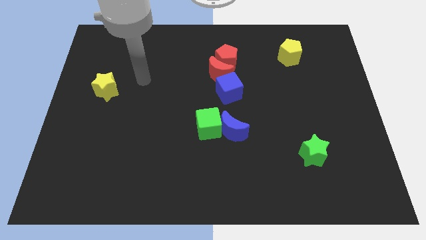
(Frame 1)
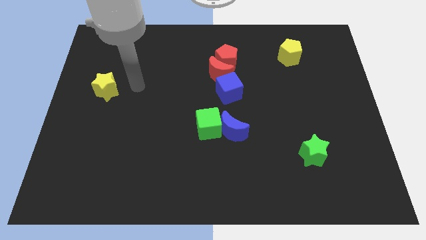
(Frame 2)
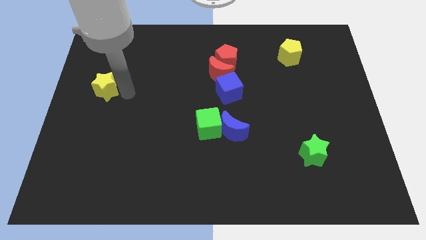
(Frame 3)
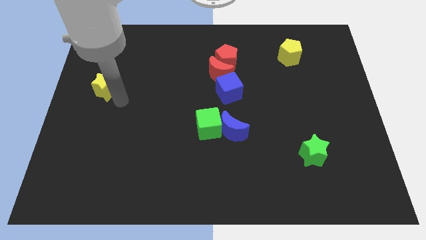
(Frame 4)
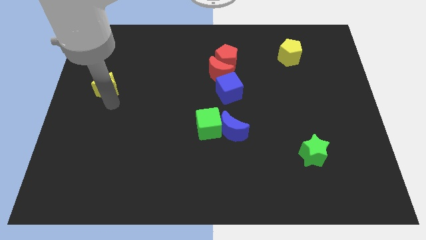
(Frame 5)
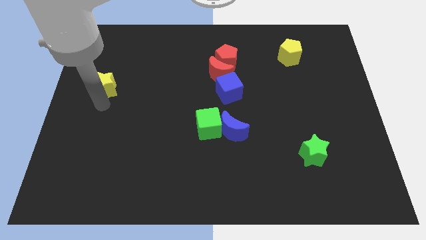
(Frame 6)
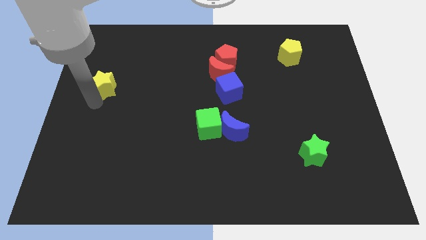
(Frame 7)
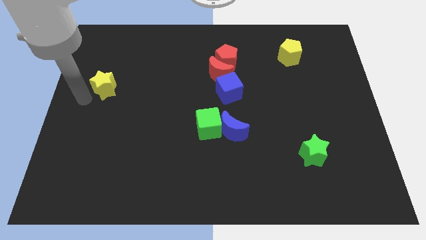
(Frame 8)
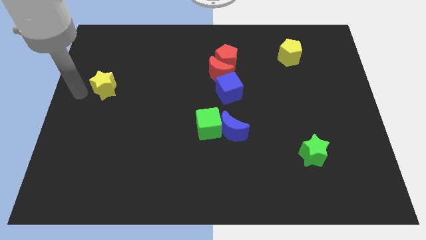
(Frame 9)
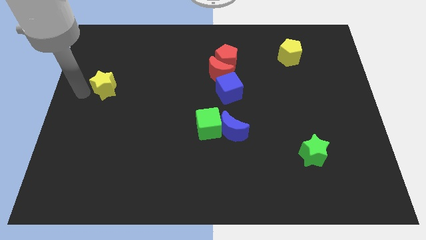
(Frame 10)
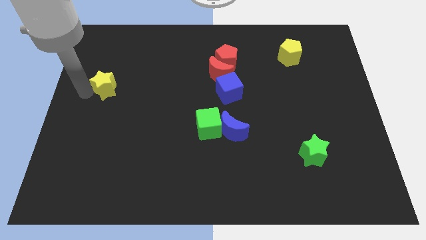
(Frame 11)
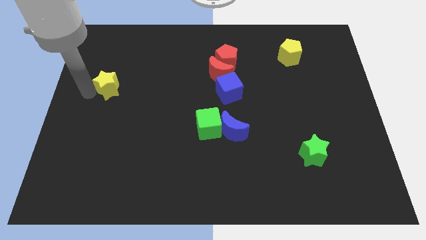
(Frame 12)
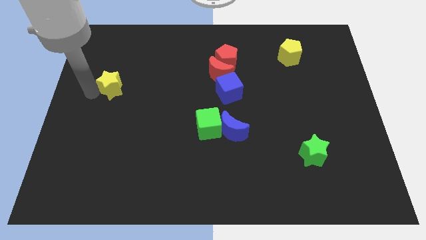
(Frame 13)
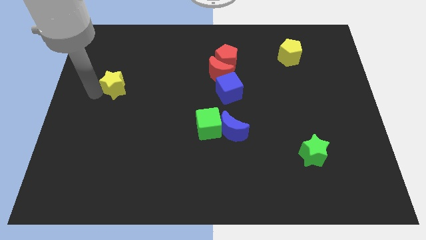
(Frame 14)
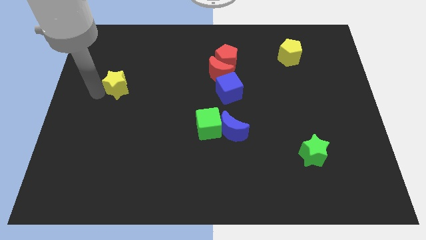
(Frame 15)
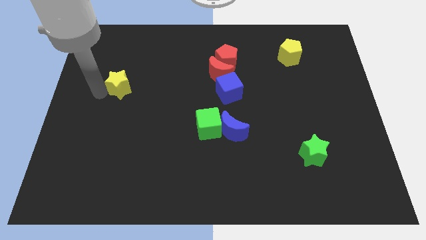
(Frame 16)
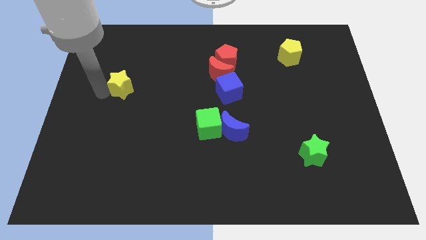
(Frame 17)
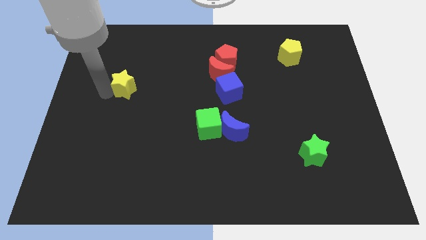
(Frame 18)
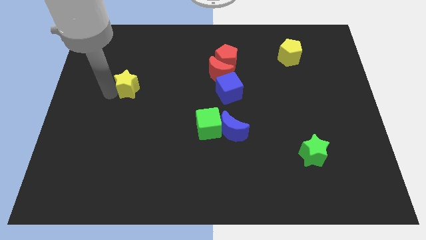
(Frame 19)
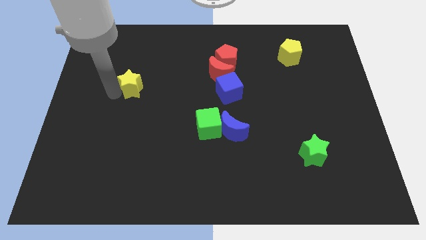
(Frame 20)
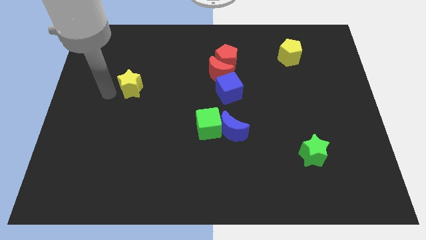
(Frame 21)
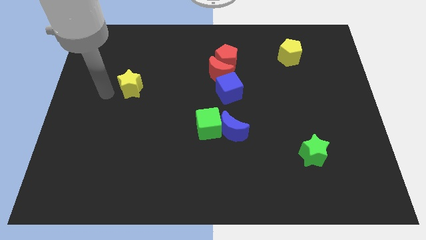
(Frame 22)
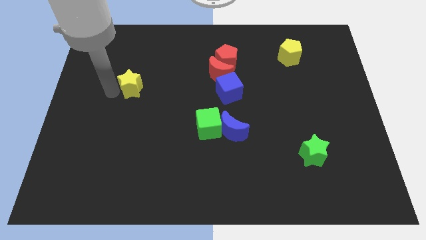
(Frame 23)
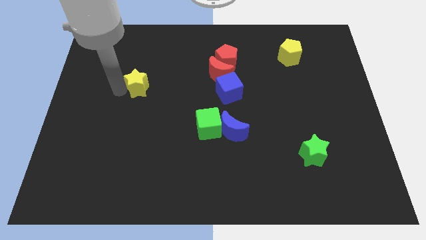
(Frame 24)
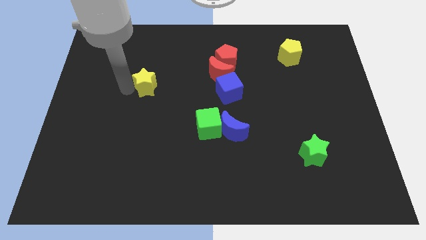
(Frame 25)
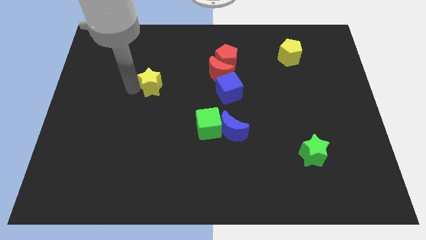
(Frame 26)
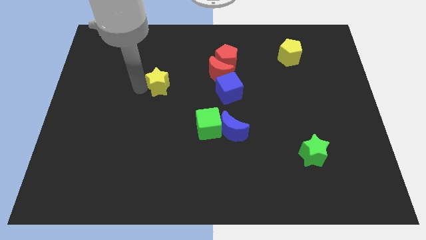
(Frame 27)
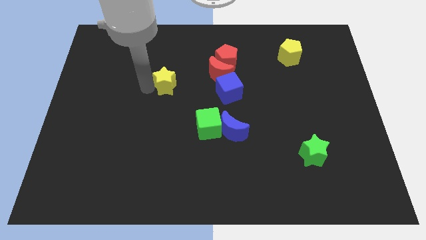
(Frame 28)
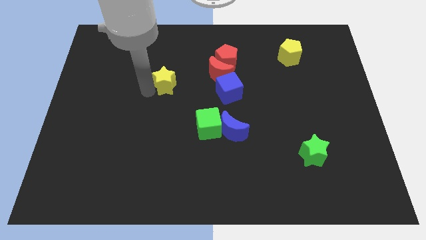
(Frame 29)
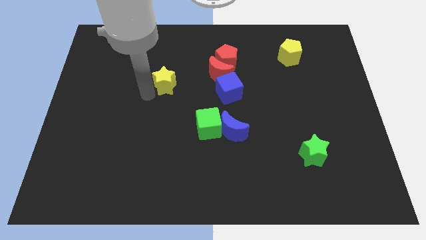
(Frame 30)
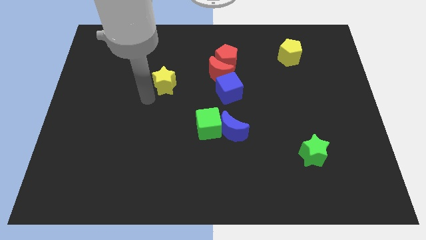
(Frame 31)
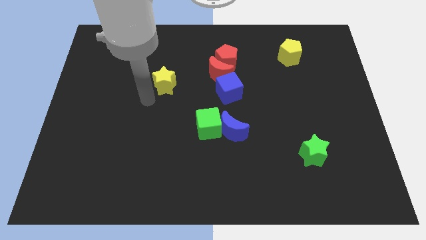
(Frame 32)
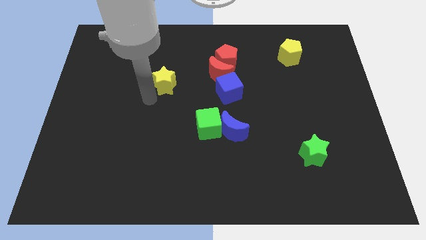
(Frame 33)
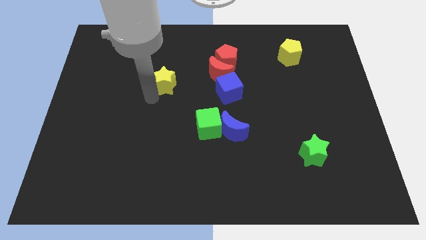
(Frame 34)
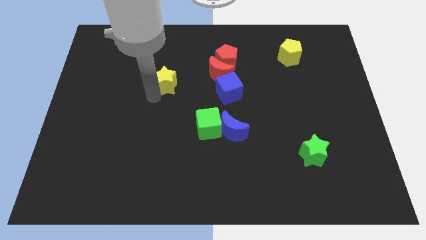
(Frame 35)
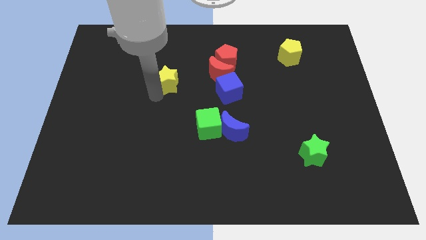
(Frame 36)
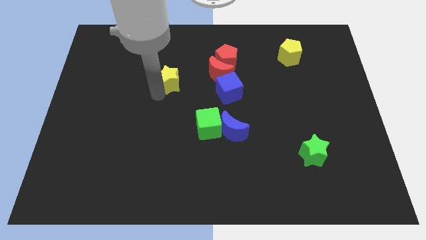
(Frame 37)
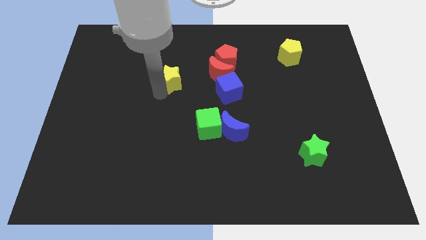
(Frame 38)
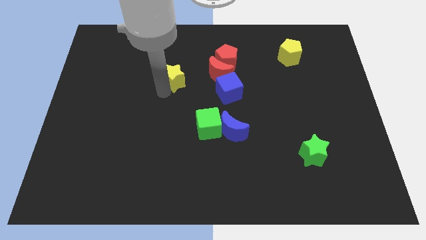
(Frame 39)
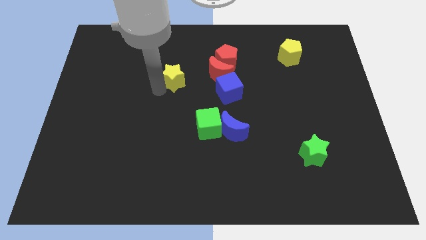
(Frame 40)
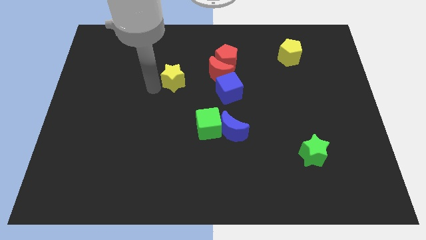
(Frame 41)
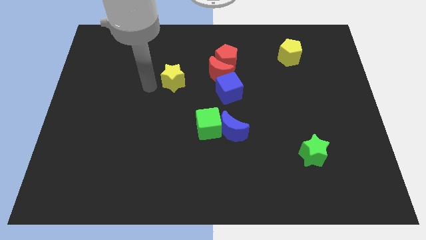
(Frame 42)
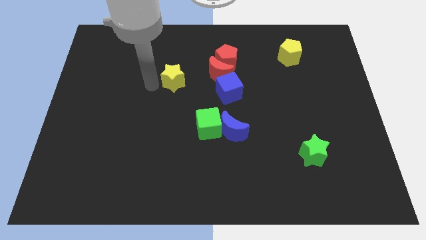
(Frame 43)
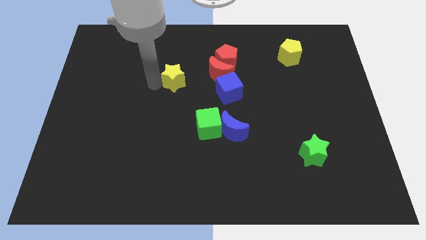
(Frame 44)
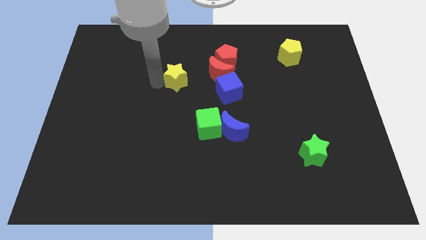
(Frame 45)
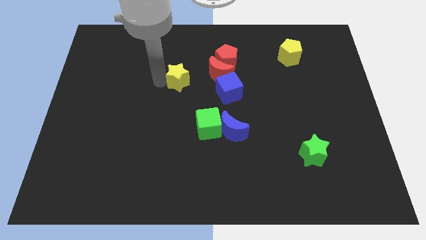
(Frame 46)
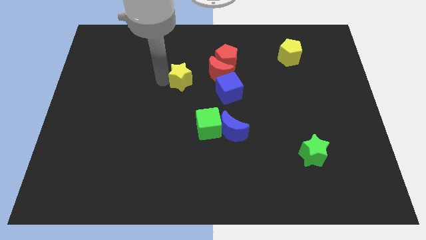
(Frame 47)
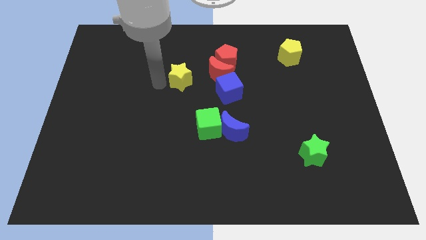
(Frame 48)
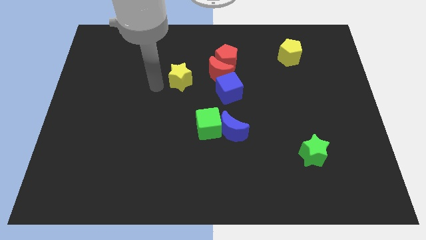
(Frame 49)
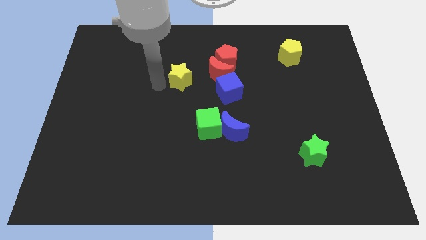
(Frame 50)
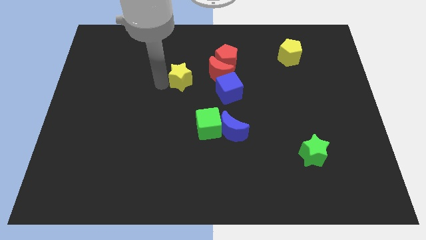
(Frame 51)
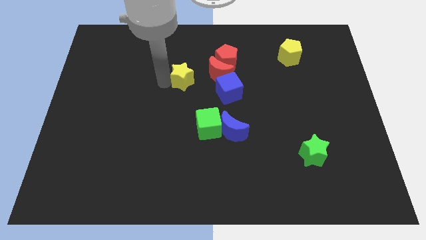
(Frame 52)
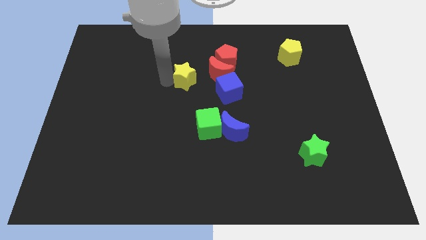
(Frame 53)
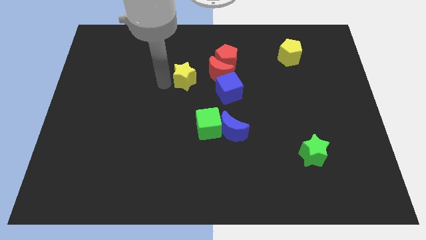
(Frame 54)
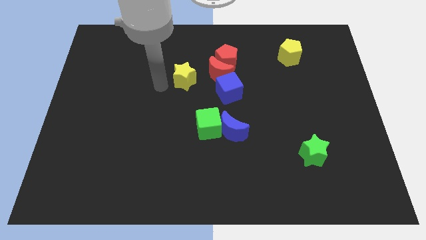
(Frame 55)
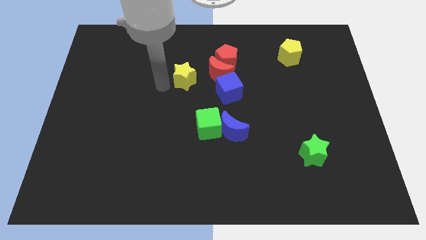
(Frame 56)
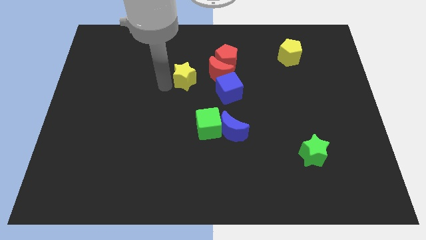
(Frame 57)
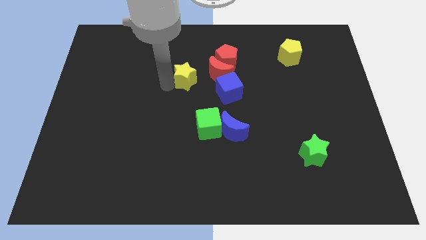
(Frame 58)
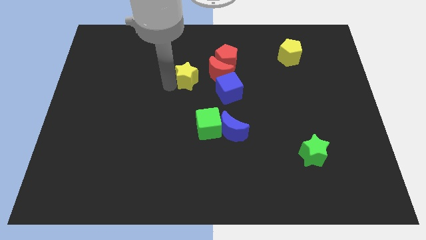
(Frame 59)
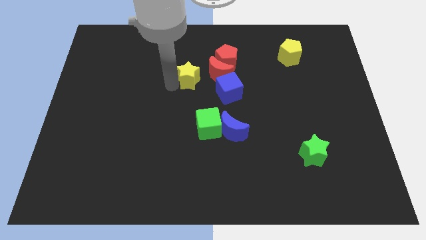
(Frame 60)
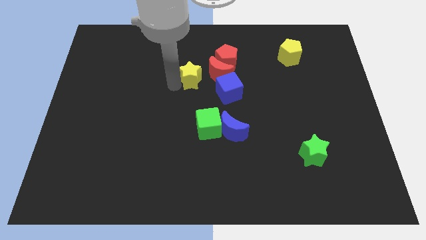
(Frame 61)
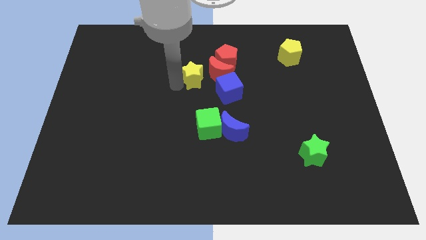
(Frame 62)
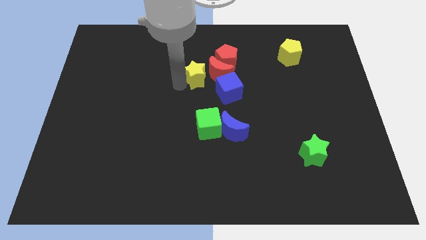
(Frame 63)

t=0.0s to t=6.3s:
put the yellow star next to the red moon
